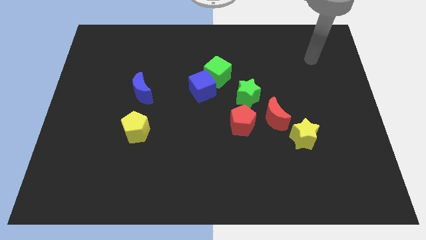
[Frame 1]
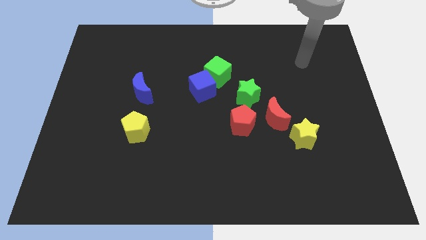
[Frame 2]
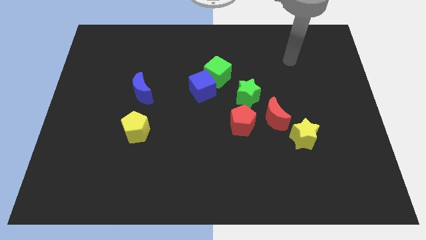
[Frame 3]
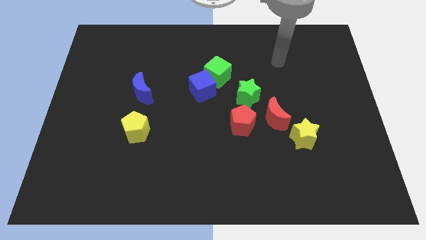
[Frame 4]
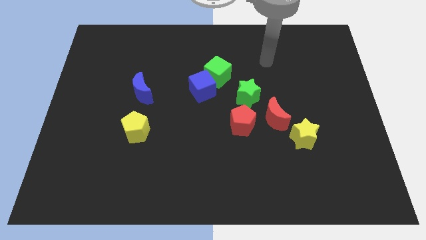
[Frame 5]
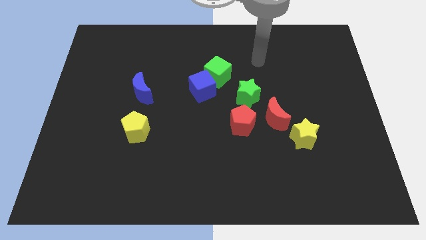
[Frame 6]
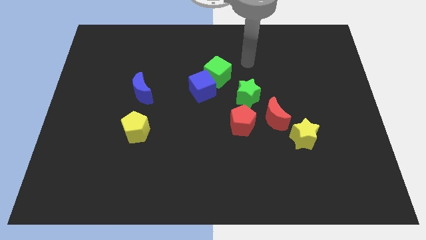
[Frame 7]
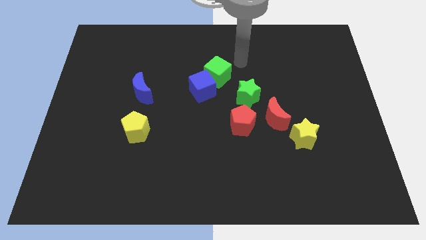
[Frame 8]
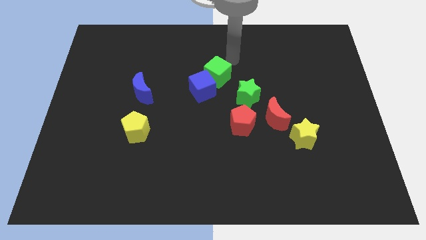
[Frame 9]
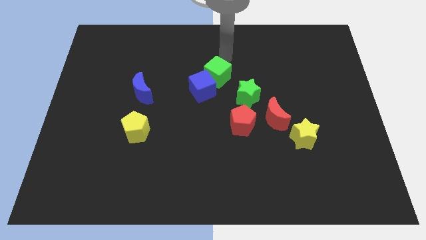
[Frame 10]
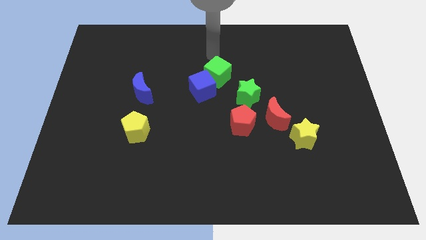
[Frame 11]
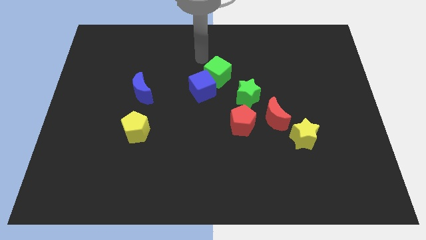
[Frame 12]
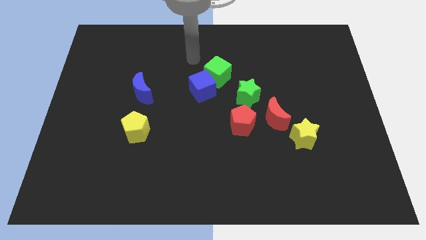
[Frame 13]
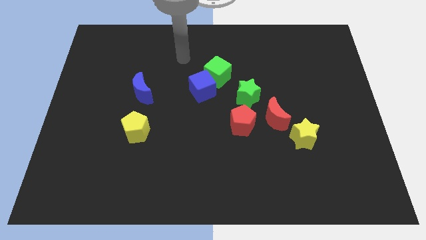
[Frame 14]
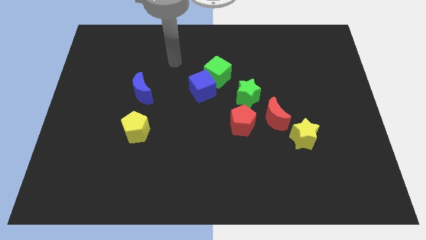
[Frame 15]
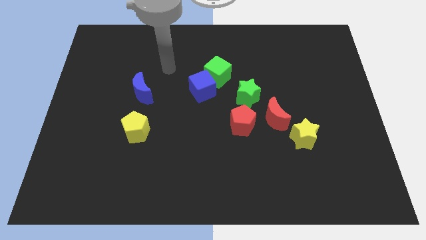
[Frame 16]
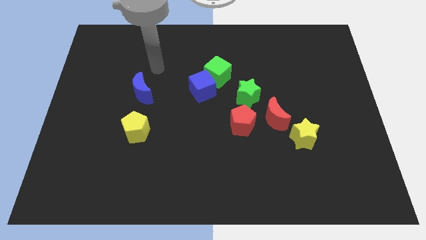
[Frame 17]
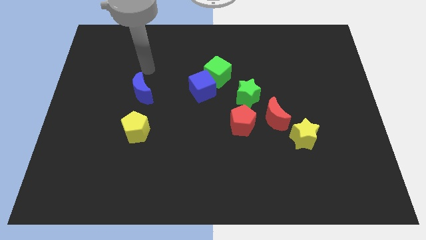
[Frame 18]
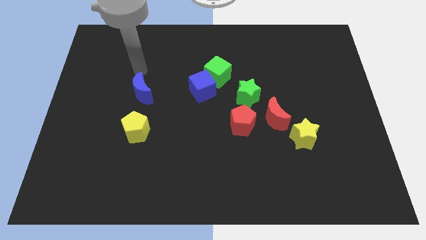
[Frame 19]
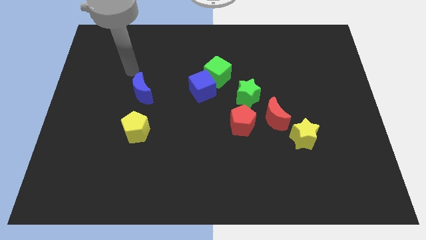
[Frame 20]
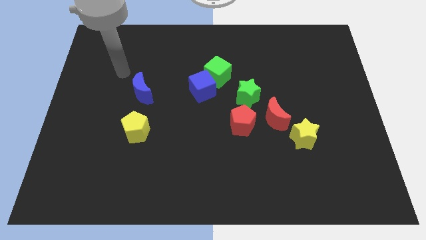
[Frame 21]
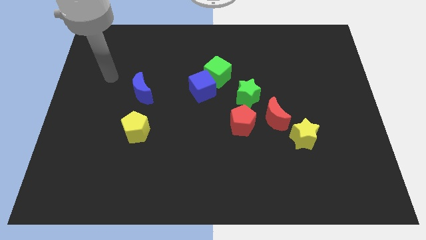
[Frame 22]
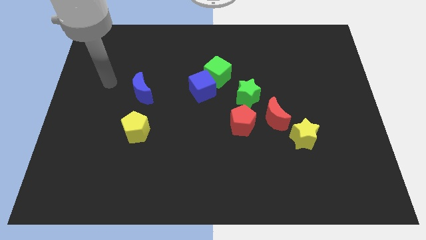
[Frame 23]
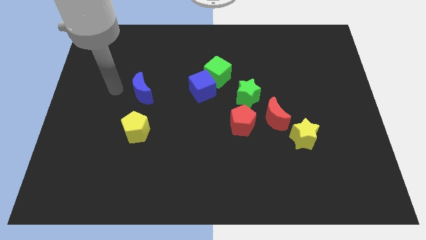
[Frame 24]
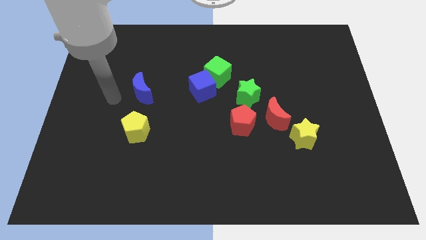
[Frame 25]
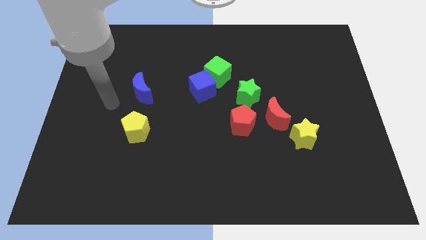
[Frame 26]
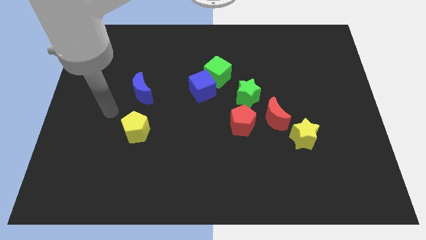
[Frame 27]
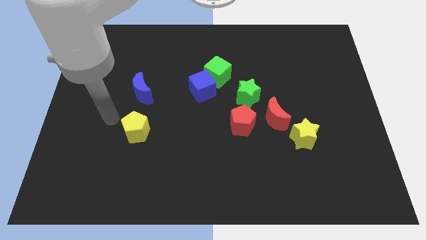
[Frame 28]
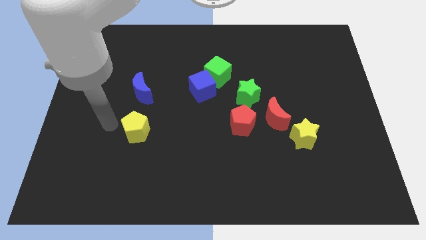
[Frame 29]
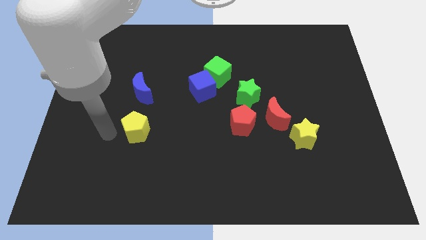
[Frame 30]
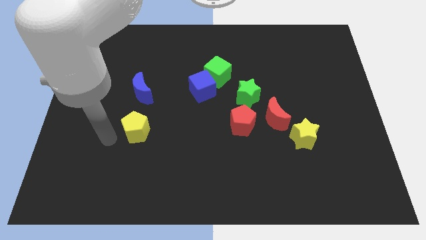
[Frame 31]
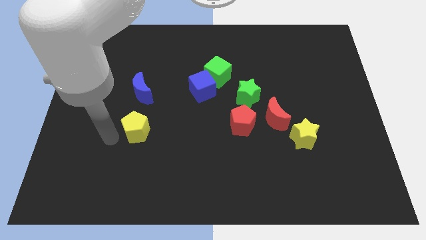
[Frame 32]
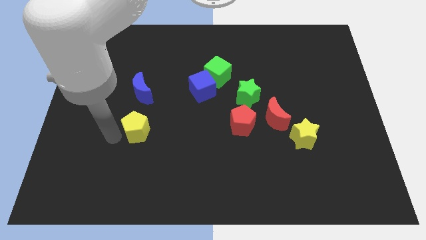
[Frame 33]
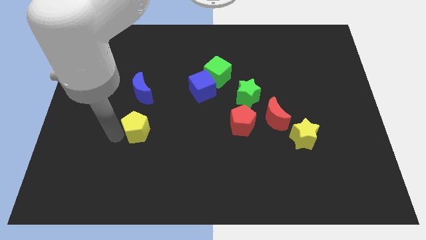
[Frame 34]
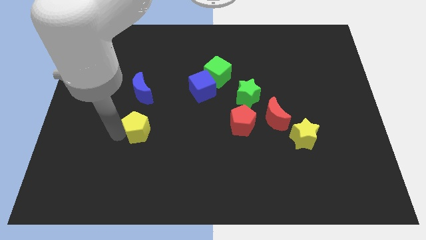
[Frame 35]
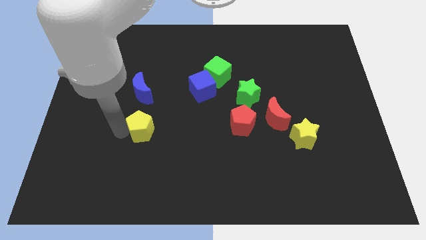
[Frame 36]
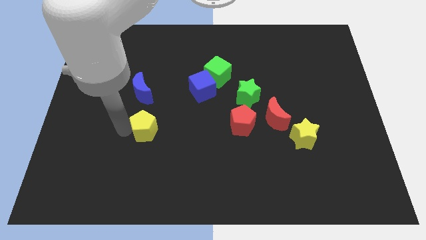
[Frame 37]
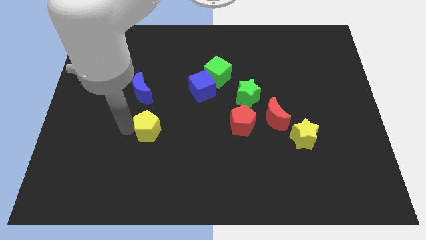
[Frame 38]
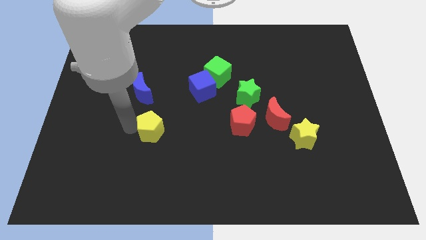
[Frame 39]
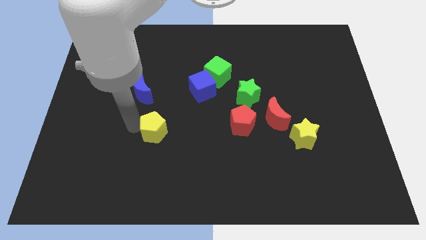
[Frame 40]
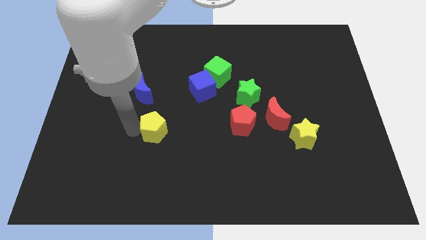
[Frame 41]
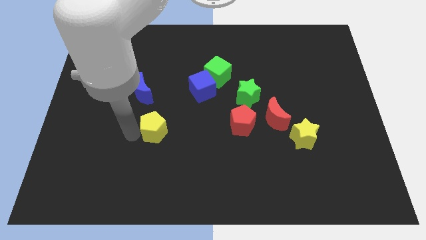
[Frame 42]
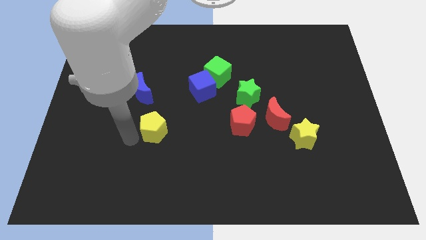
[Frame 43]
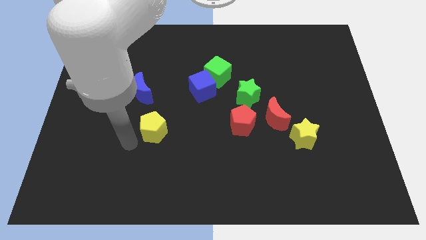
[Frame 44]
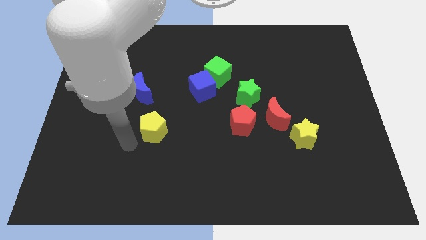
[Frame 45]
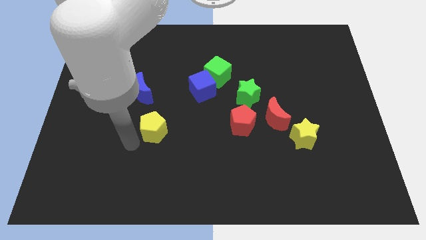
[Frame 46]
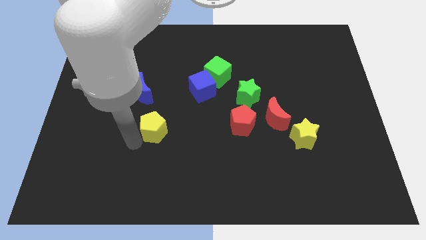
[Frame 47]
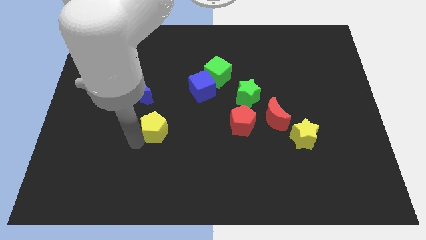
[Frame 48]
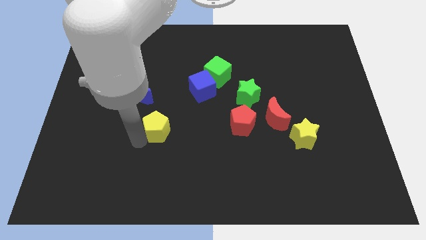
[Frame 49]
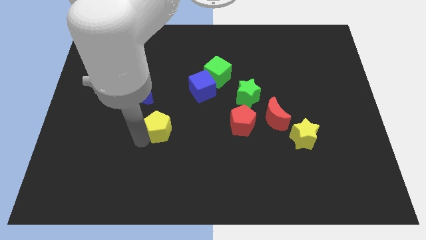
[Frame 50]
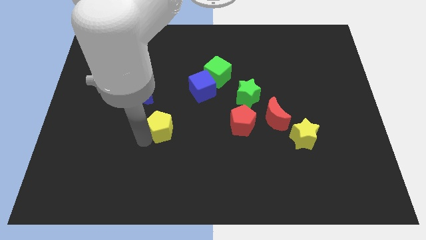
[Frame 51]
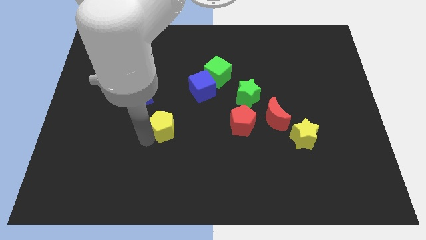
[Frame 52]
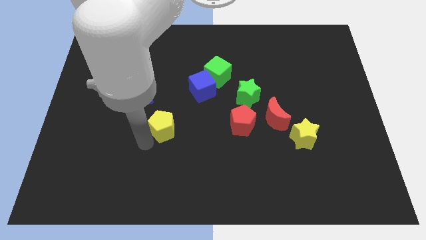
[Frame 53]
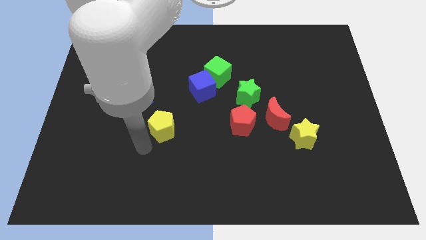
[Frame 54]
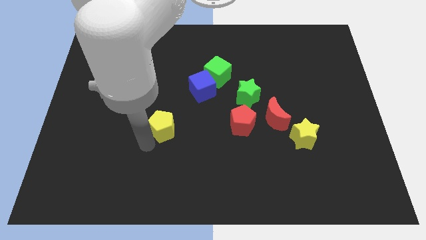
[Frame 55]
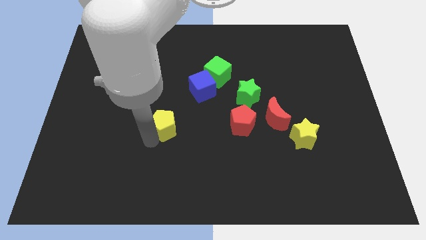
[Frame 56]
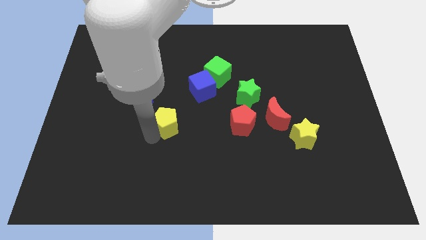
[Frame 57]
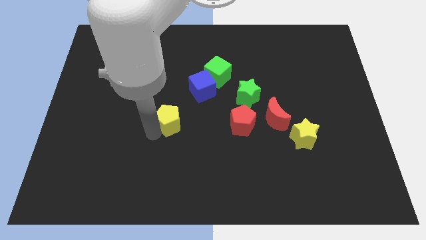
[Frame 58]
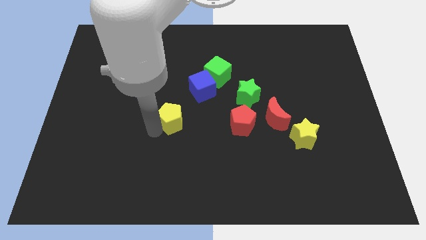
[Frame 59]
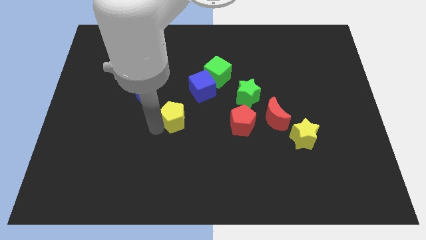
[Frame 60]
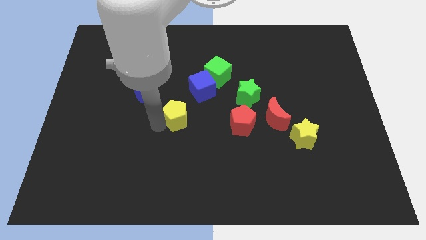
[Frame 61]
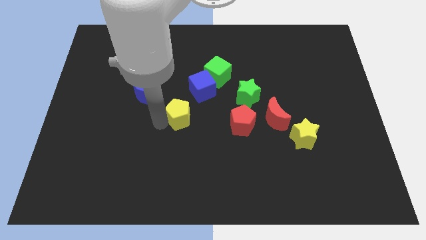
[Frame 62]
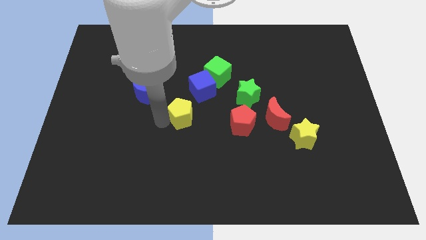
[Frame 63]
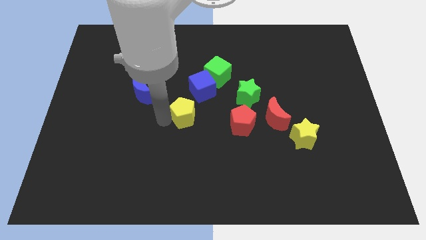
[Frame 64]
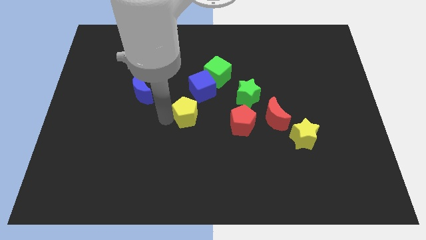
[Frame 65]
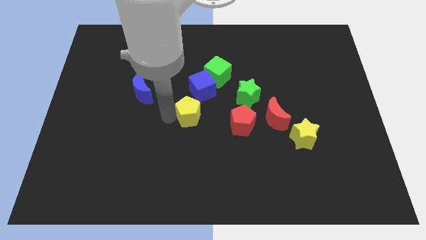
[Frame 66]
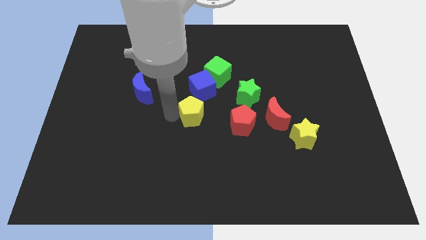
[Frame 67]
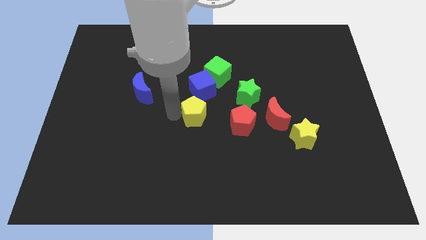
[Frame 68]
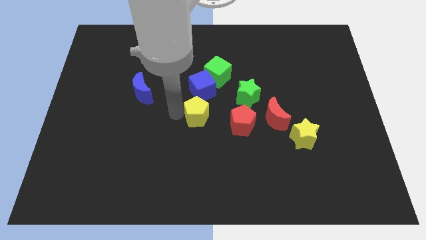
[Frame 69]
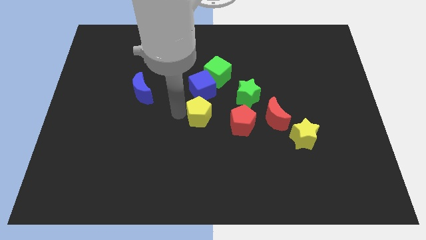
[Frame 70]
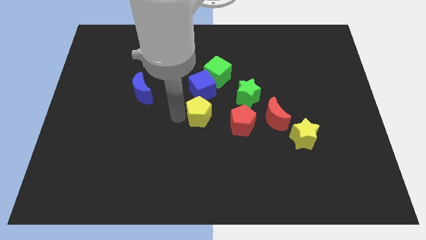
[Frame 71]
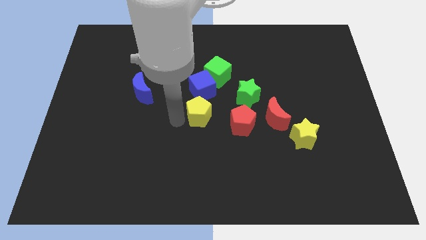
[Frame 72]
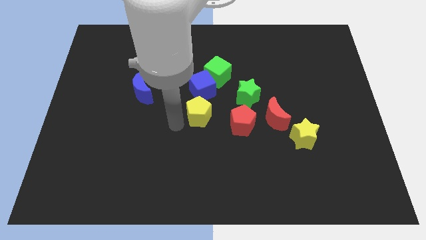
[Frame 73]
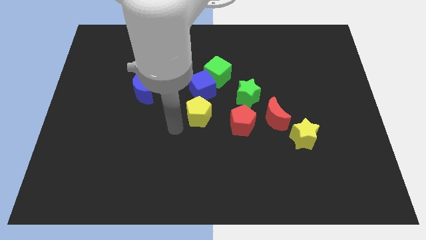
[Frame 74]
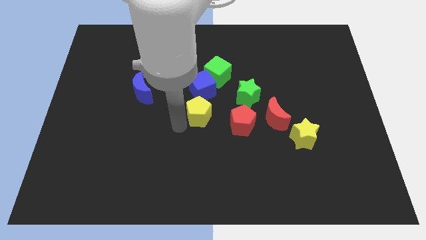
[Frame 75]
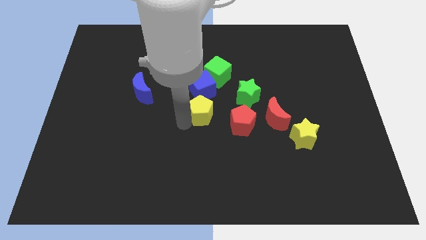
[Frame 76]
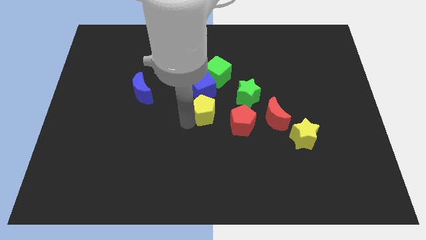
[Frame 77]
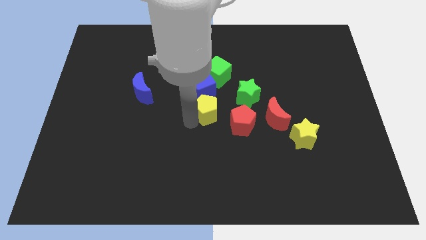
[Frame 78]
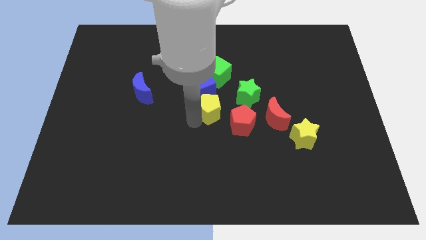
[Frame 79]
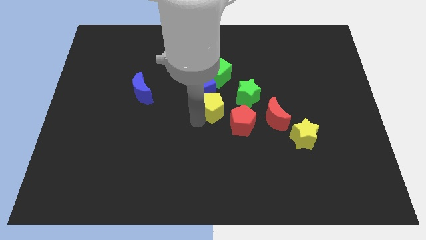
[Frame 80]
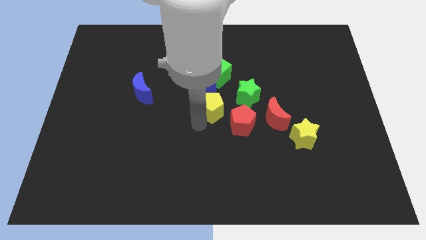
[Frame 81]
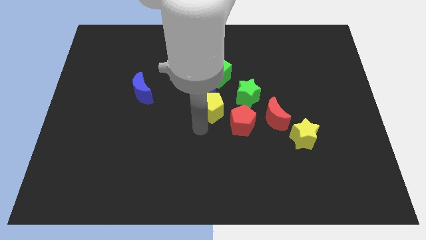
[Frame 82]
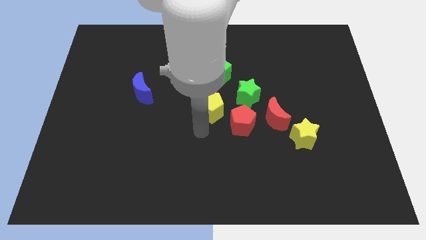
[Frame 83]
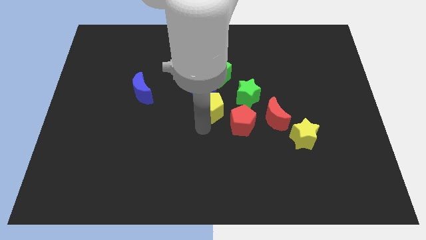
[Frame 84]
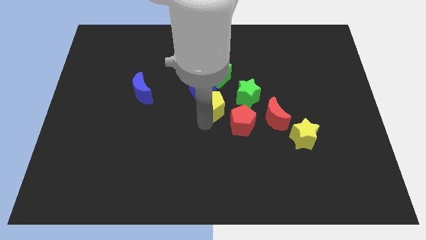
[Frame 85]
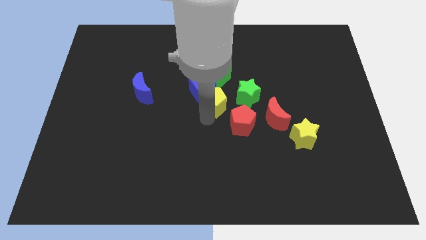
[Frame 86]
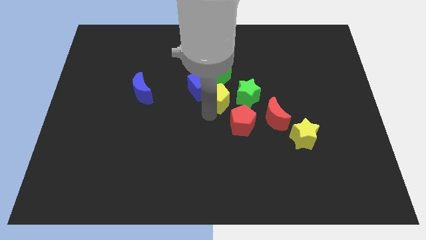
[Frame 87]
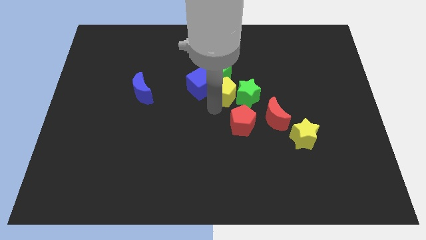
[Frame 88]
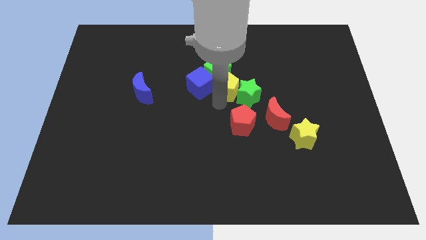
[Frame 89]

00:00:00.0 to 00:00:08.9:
move the yellow pentagon to the green cube
